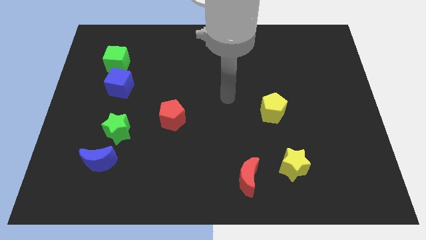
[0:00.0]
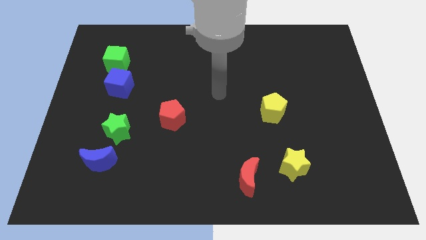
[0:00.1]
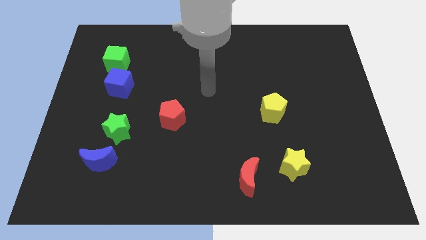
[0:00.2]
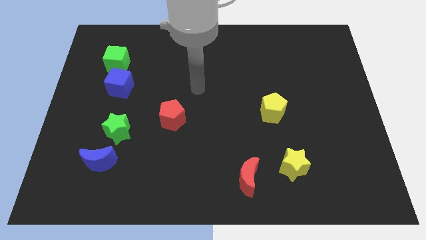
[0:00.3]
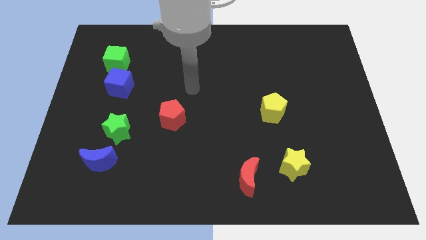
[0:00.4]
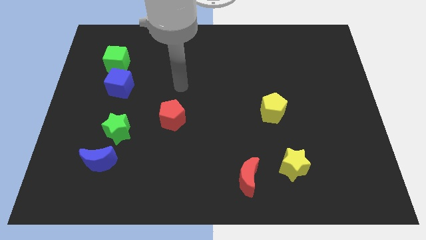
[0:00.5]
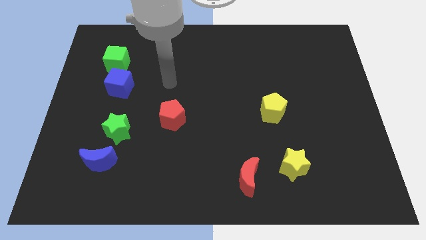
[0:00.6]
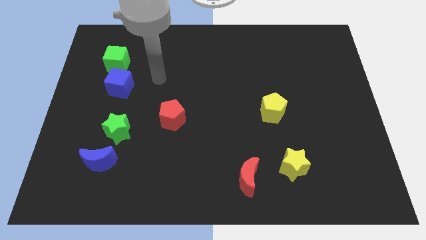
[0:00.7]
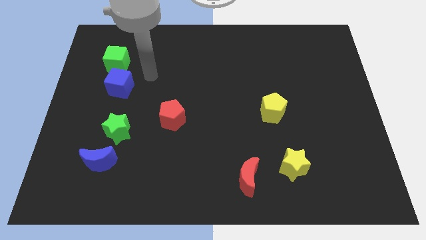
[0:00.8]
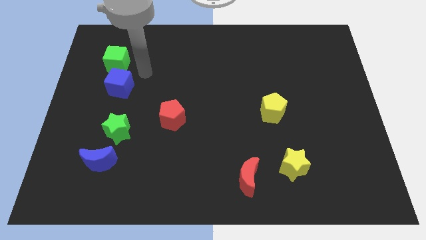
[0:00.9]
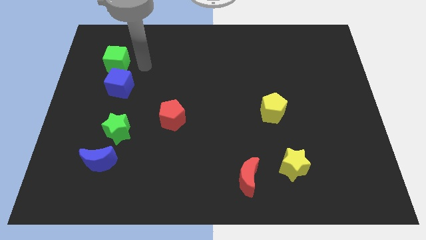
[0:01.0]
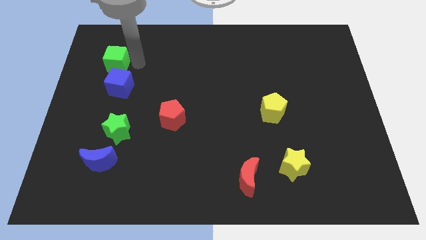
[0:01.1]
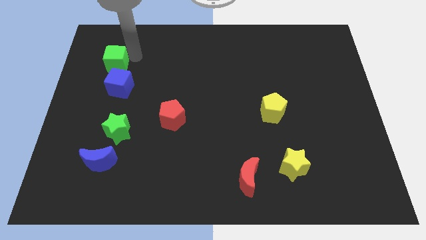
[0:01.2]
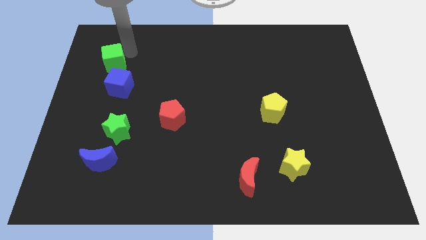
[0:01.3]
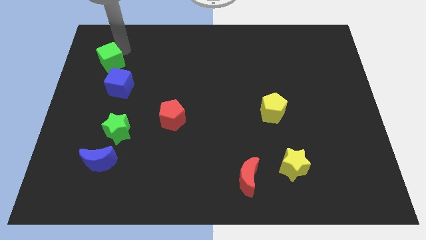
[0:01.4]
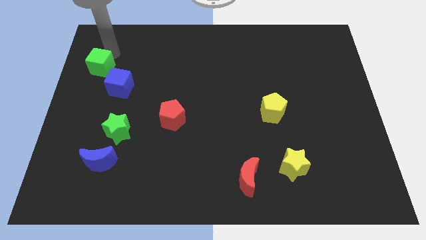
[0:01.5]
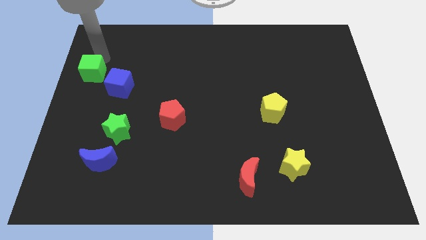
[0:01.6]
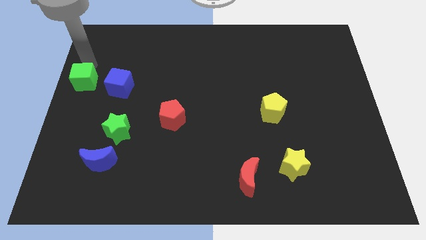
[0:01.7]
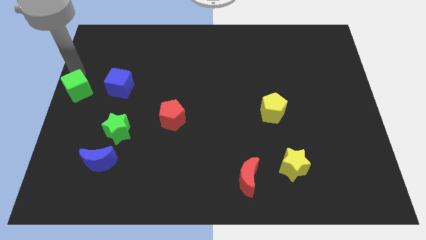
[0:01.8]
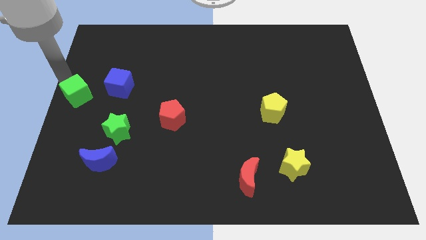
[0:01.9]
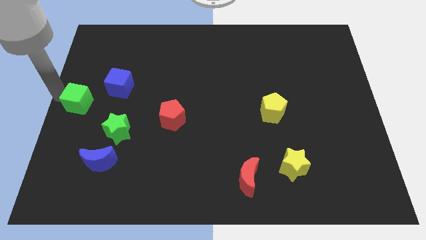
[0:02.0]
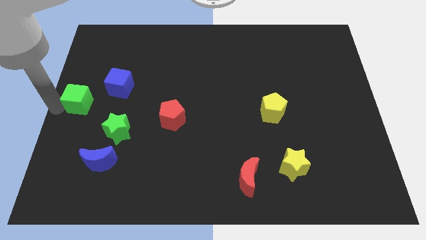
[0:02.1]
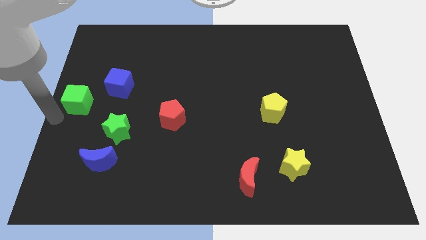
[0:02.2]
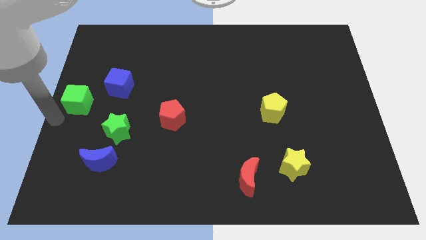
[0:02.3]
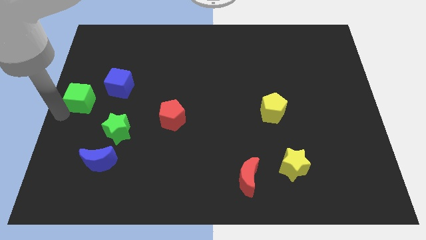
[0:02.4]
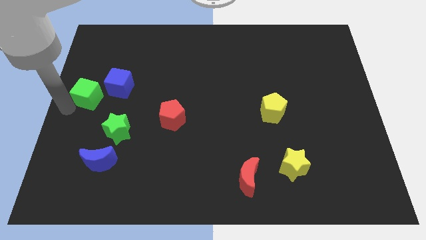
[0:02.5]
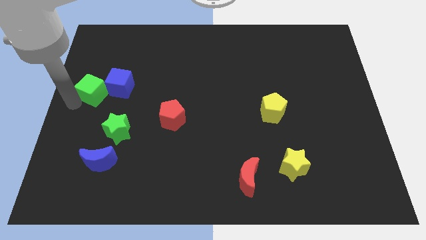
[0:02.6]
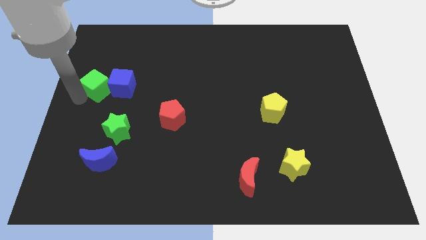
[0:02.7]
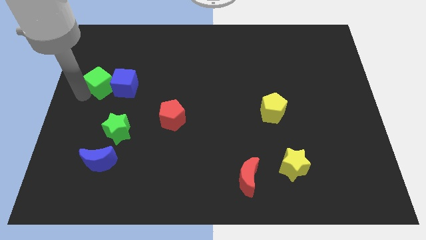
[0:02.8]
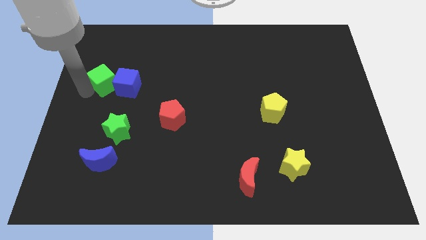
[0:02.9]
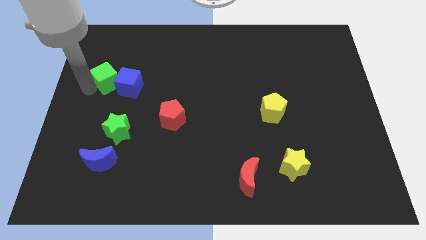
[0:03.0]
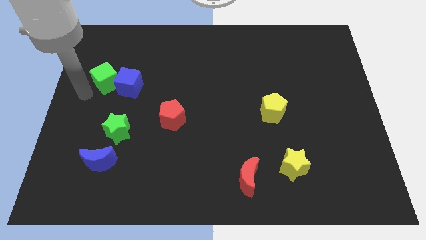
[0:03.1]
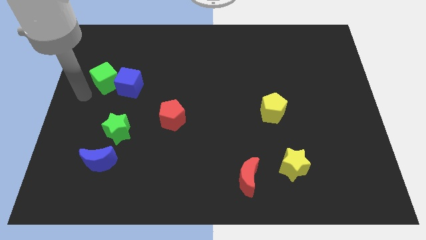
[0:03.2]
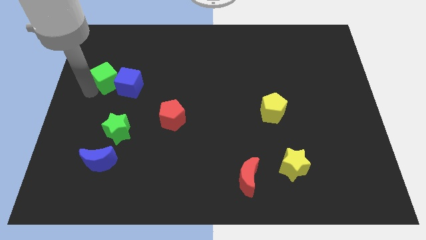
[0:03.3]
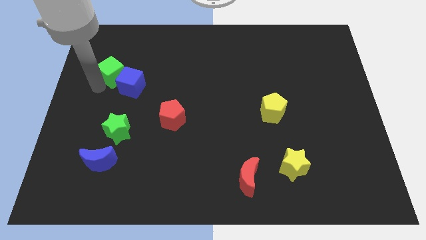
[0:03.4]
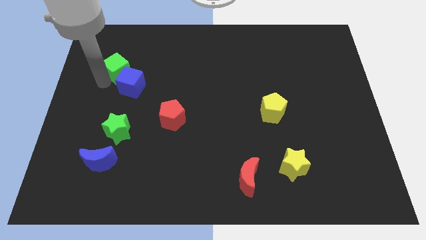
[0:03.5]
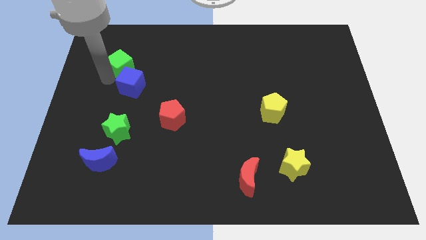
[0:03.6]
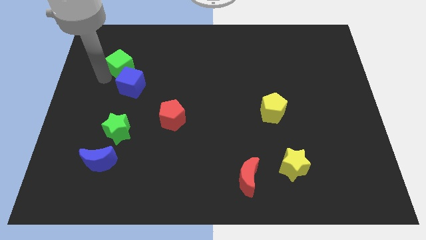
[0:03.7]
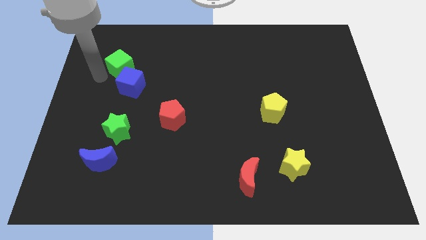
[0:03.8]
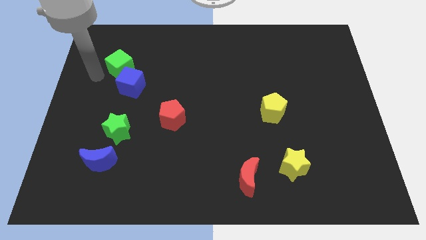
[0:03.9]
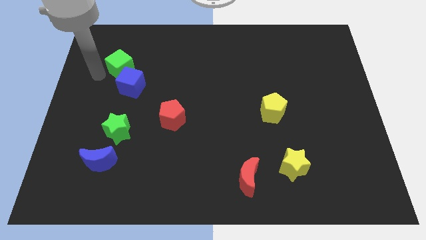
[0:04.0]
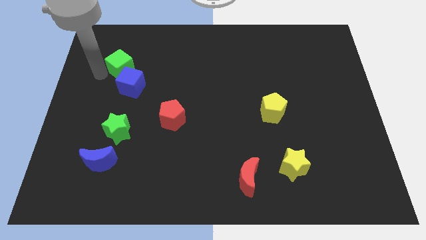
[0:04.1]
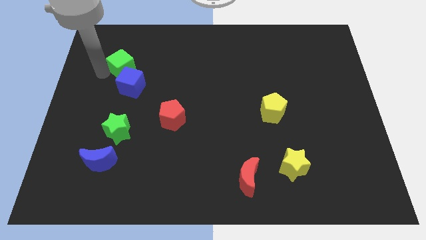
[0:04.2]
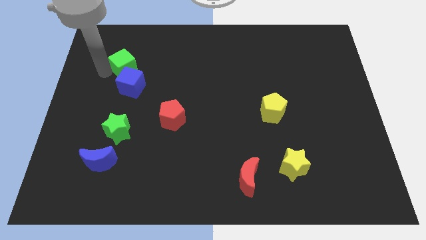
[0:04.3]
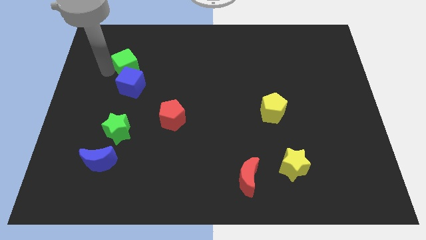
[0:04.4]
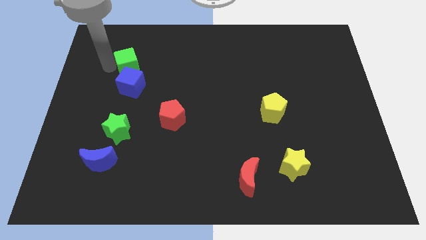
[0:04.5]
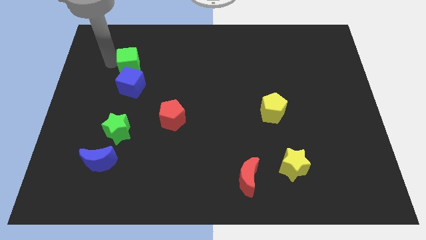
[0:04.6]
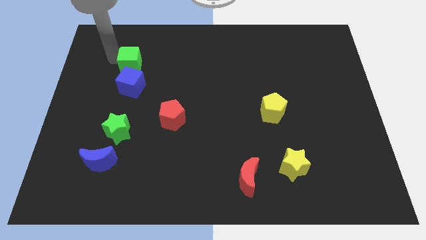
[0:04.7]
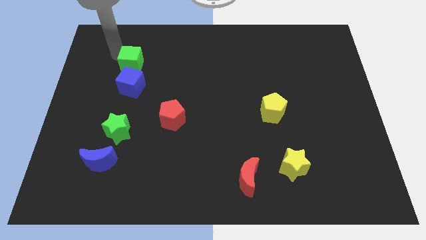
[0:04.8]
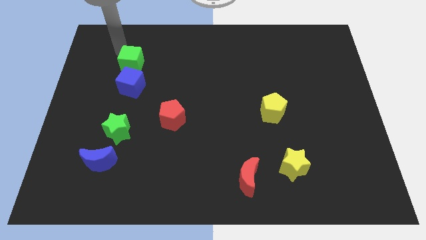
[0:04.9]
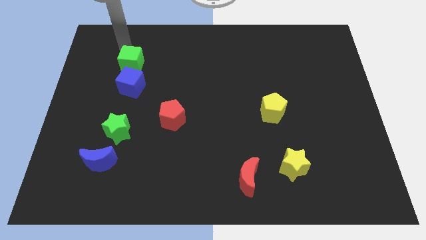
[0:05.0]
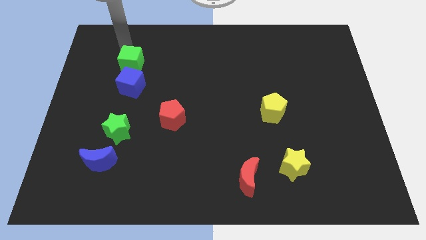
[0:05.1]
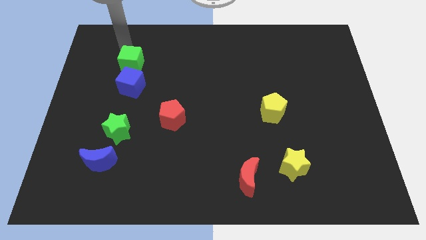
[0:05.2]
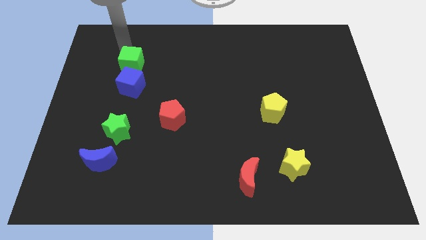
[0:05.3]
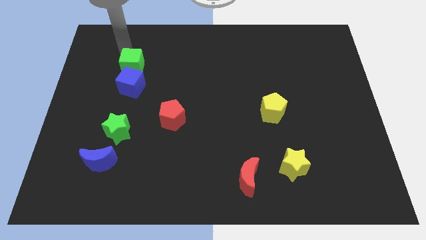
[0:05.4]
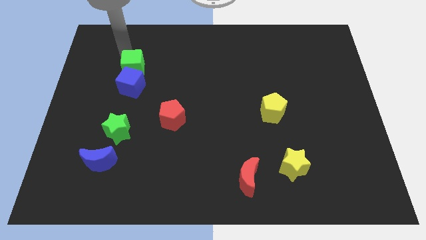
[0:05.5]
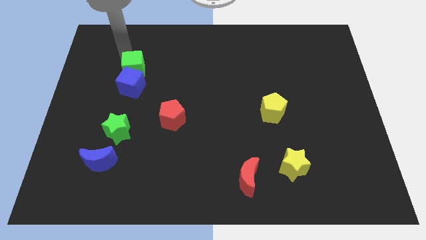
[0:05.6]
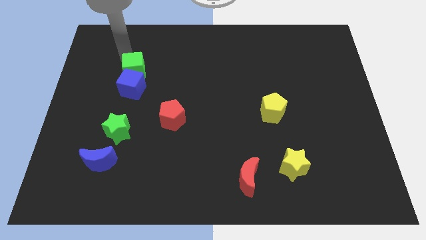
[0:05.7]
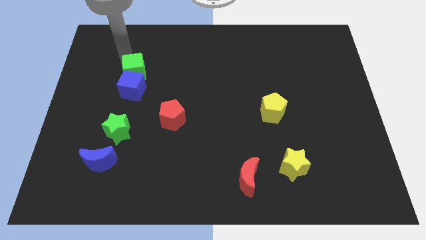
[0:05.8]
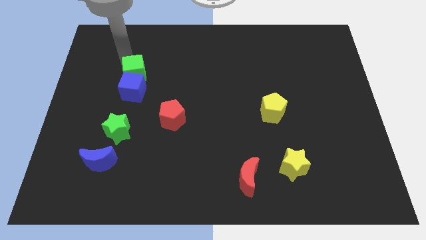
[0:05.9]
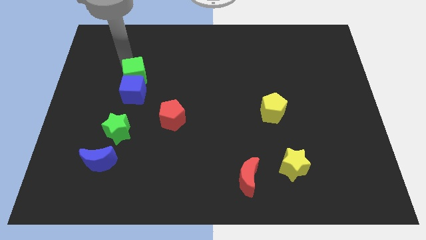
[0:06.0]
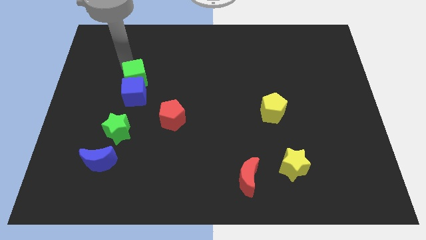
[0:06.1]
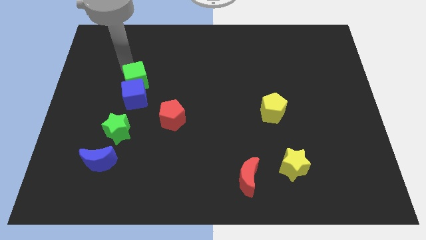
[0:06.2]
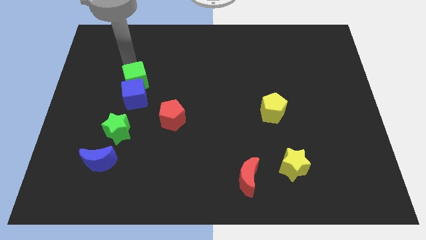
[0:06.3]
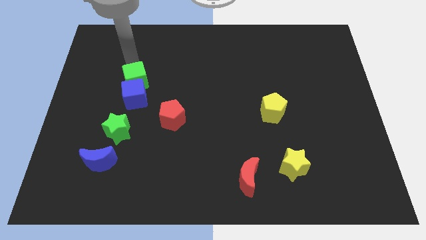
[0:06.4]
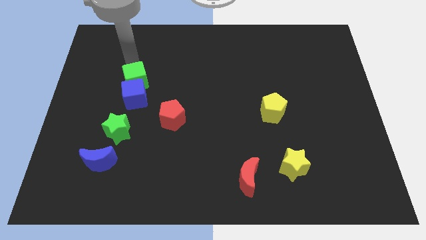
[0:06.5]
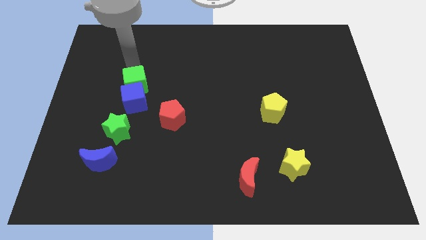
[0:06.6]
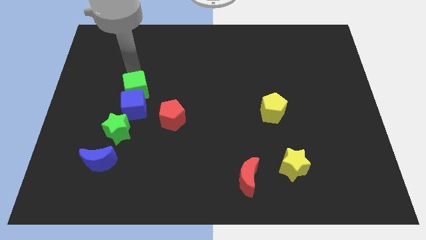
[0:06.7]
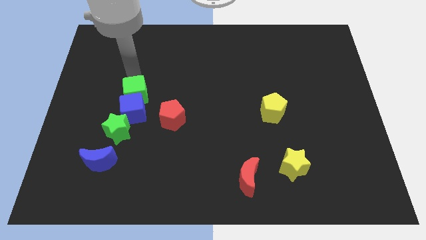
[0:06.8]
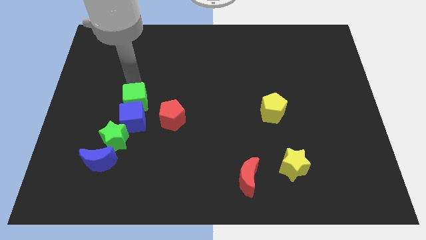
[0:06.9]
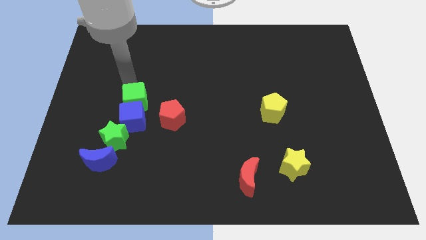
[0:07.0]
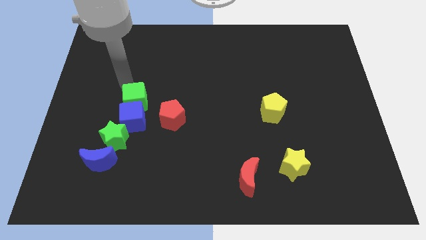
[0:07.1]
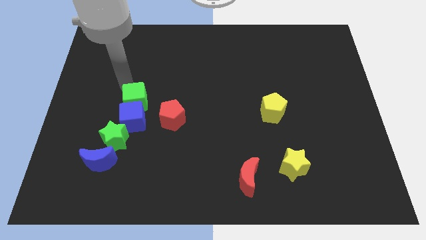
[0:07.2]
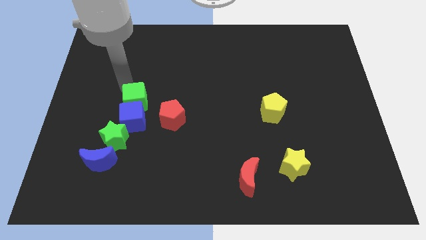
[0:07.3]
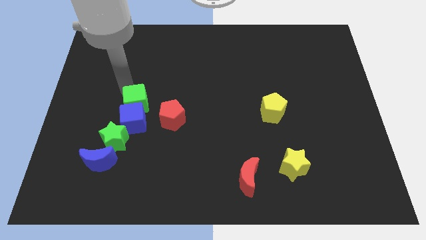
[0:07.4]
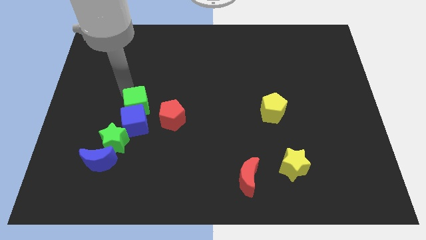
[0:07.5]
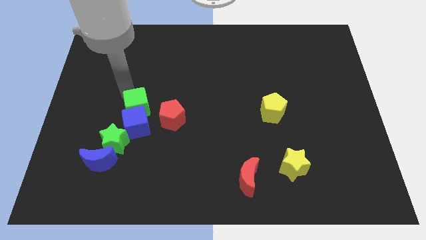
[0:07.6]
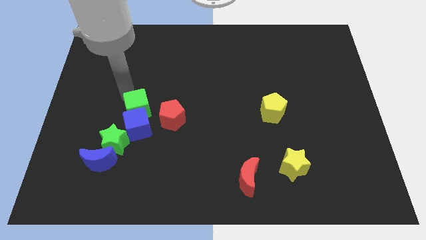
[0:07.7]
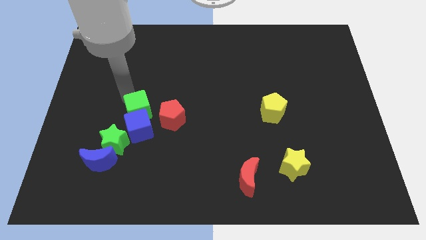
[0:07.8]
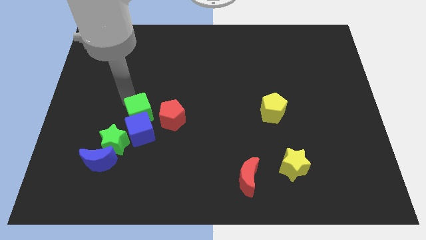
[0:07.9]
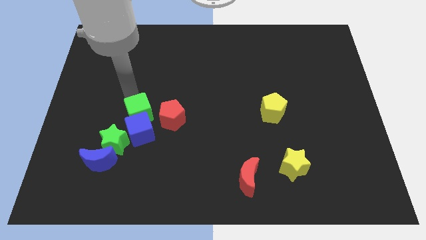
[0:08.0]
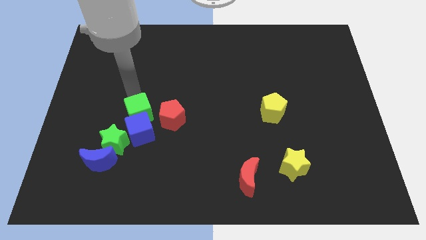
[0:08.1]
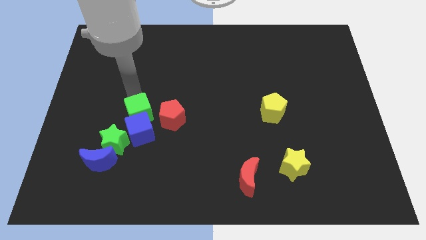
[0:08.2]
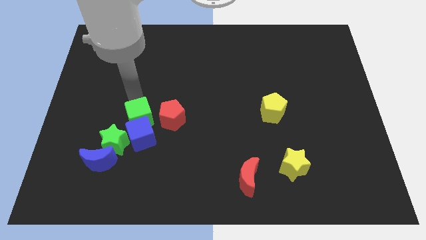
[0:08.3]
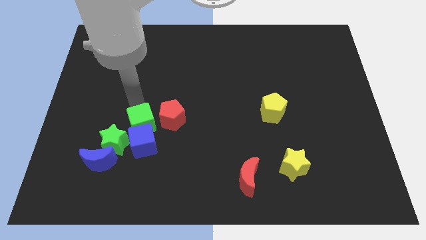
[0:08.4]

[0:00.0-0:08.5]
move the green cube diagonally down and to the left of the red pentagon
